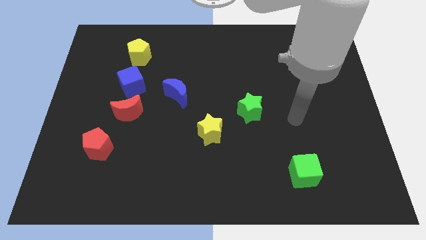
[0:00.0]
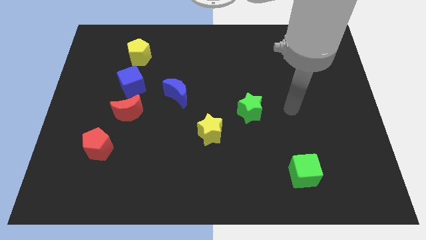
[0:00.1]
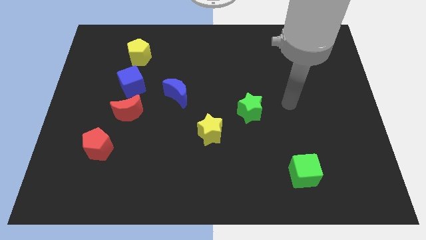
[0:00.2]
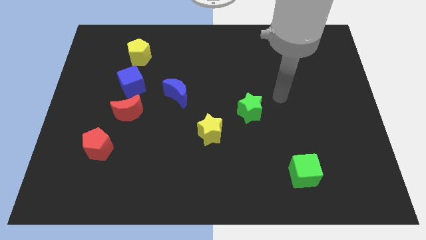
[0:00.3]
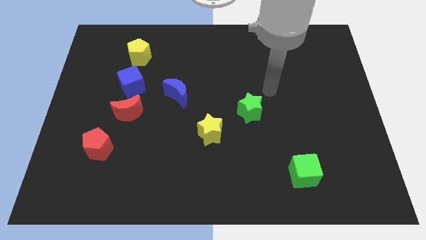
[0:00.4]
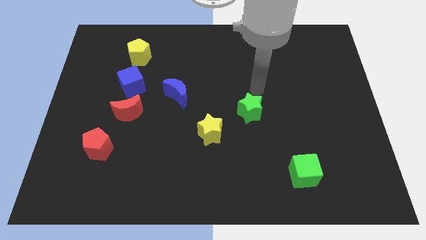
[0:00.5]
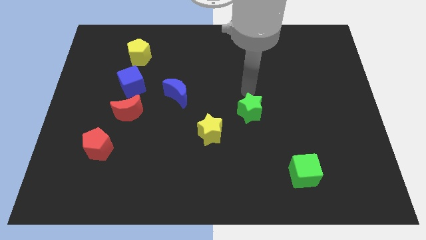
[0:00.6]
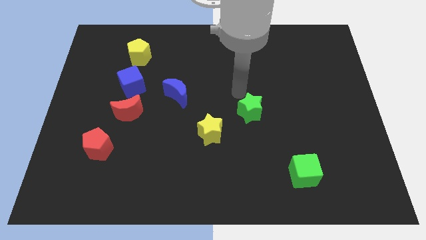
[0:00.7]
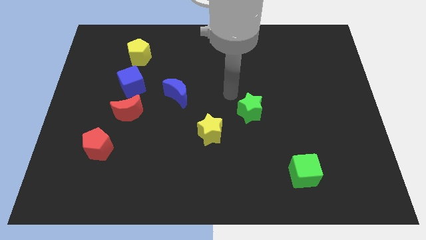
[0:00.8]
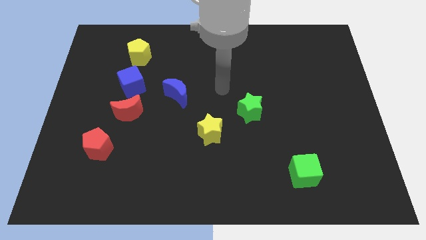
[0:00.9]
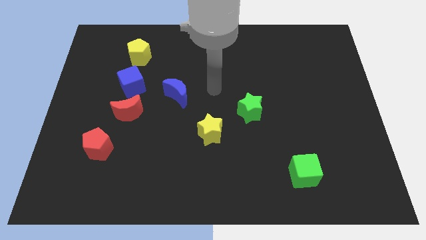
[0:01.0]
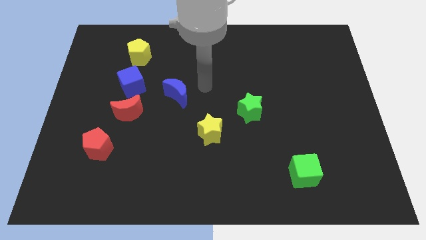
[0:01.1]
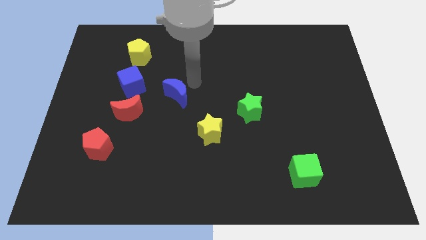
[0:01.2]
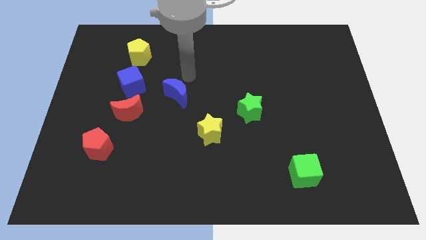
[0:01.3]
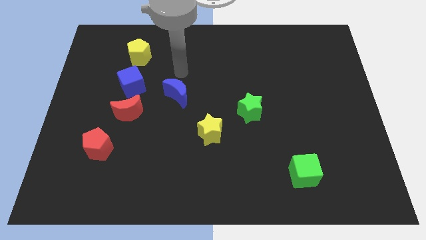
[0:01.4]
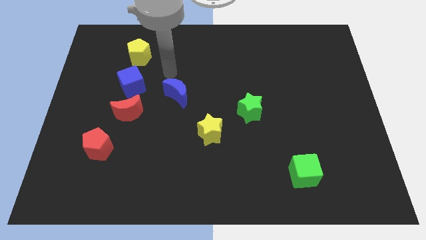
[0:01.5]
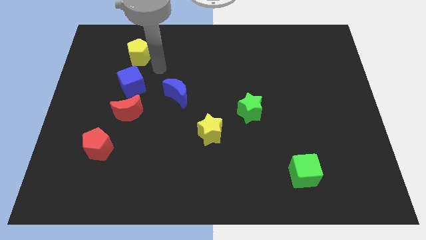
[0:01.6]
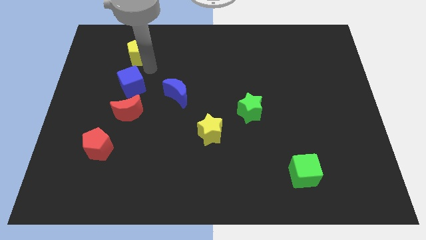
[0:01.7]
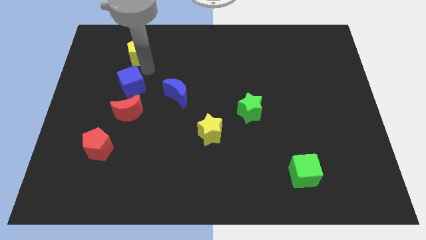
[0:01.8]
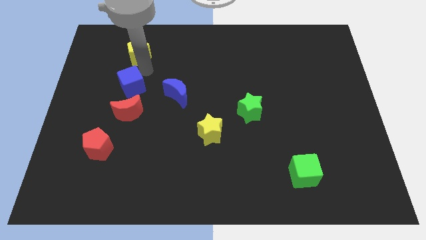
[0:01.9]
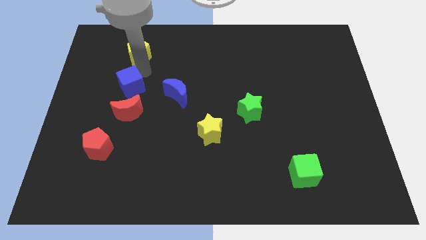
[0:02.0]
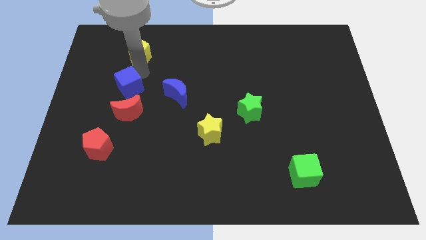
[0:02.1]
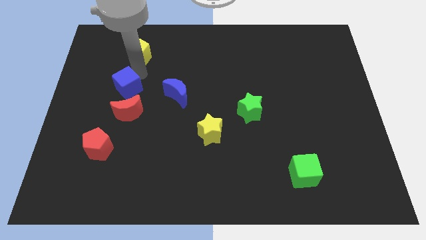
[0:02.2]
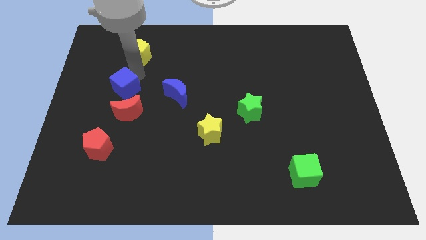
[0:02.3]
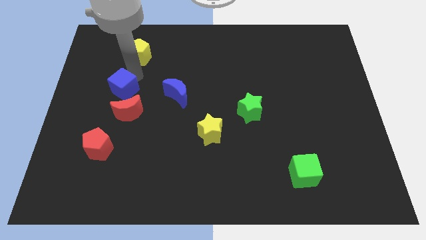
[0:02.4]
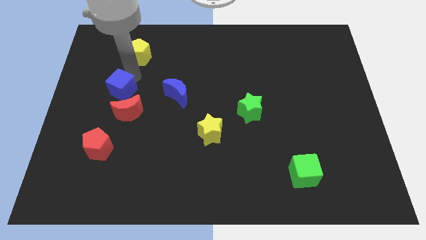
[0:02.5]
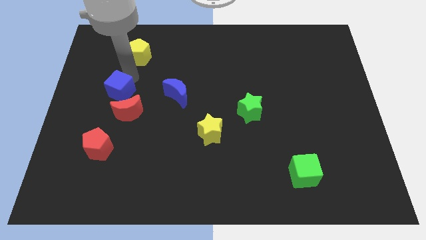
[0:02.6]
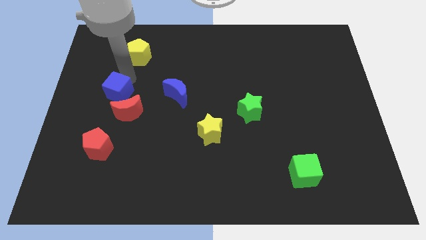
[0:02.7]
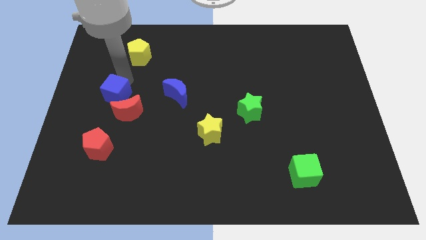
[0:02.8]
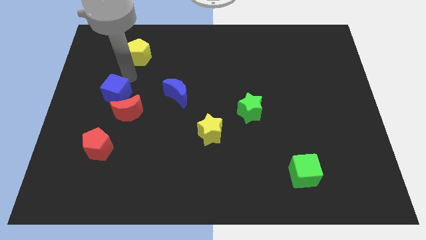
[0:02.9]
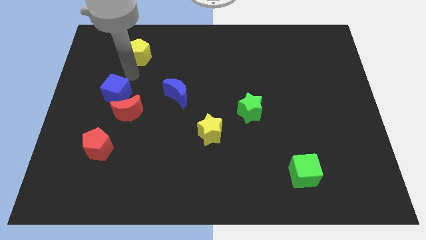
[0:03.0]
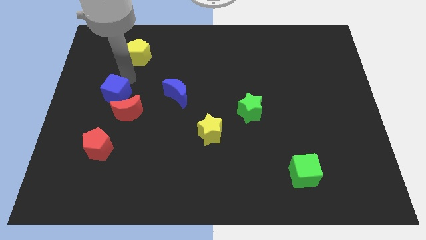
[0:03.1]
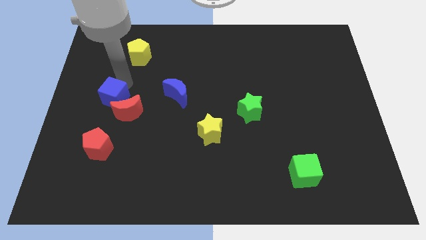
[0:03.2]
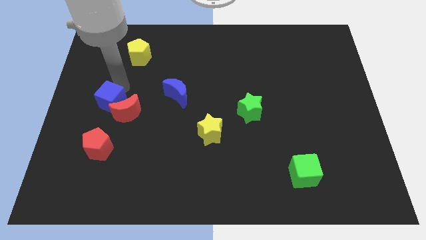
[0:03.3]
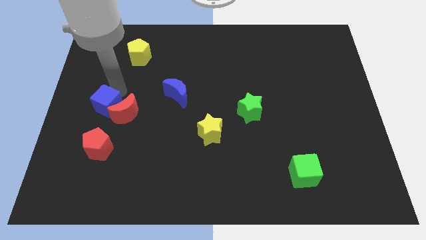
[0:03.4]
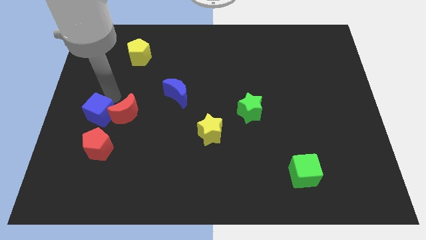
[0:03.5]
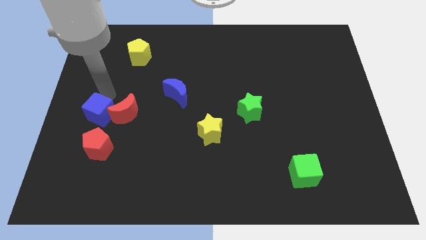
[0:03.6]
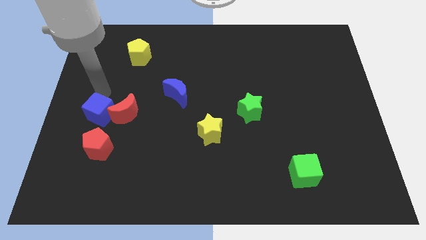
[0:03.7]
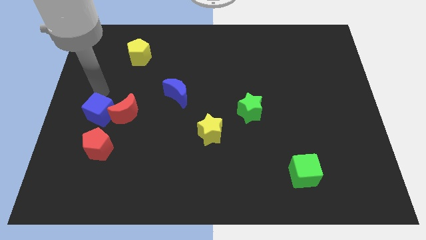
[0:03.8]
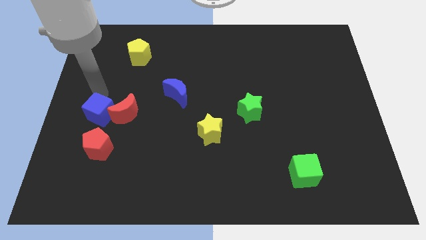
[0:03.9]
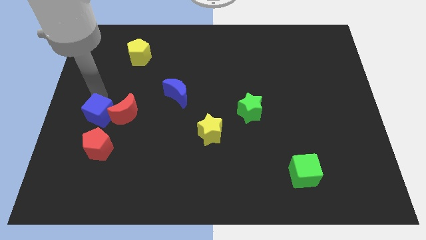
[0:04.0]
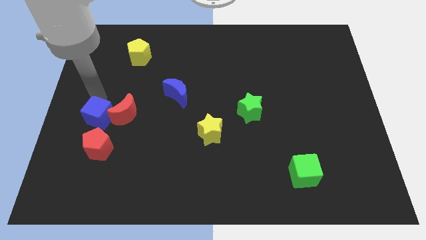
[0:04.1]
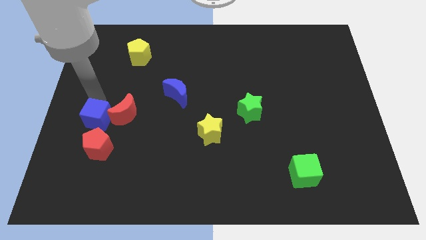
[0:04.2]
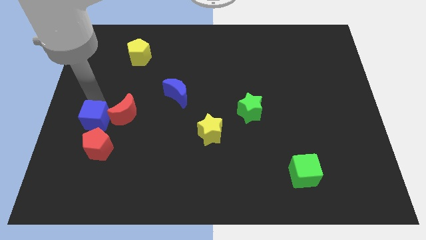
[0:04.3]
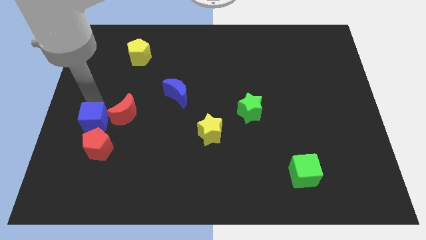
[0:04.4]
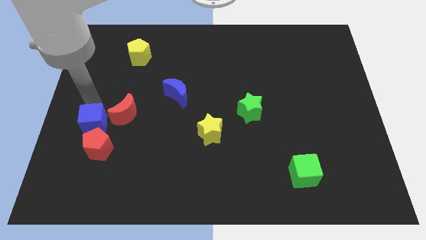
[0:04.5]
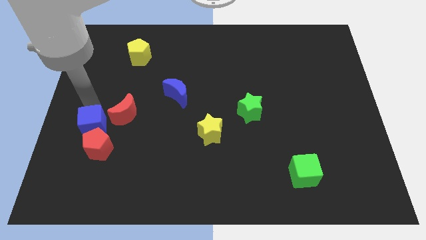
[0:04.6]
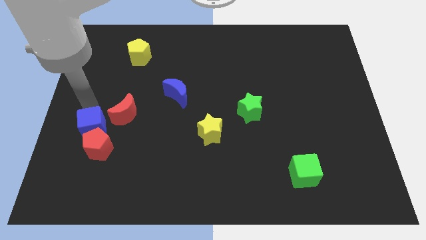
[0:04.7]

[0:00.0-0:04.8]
move the blue cube next to the red pentagon

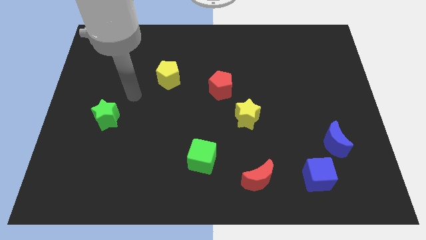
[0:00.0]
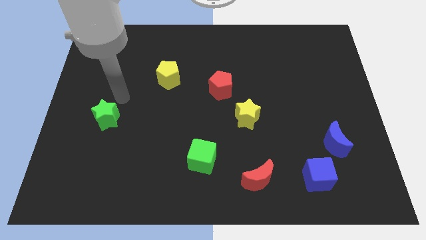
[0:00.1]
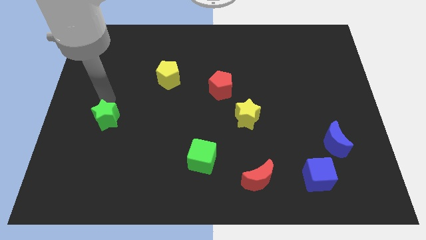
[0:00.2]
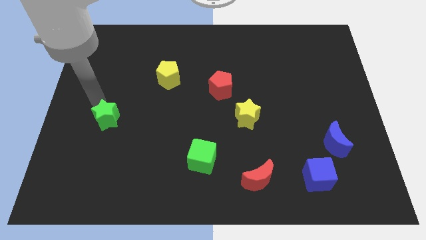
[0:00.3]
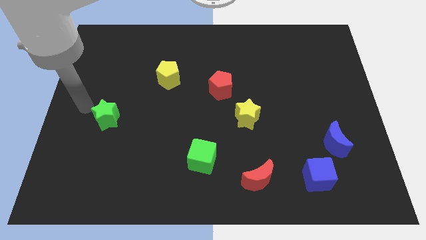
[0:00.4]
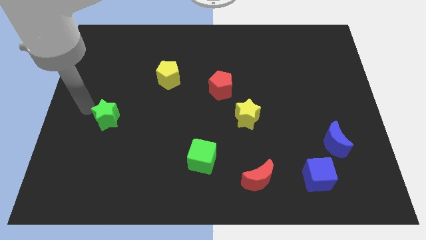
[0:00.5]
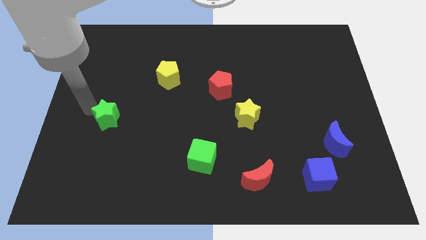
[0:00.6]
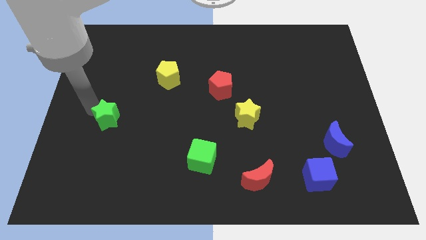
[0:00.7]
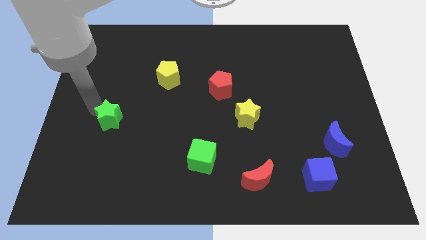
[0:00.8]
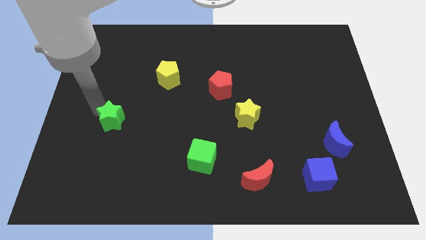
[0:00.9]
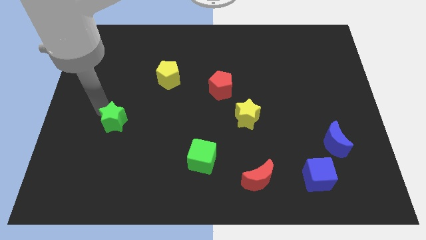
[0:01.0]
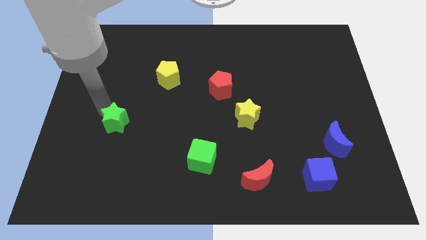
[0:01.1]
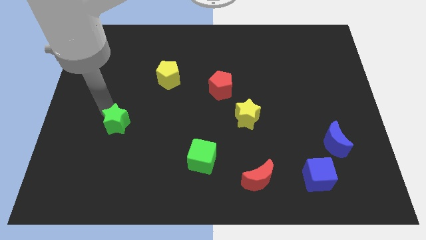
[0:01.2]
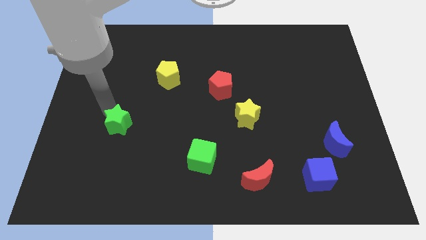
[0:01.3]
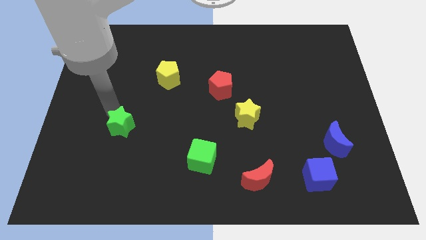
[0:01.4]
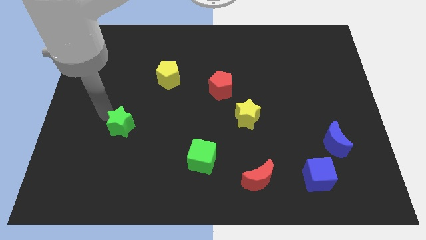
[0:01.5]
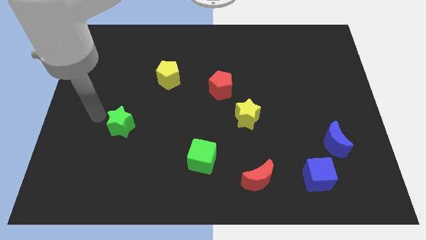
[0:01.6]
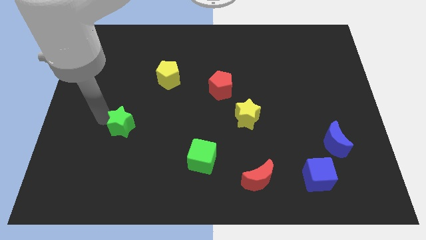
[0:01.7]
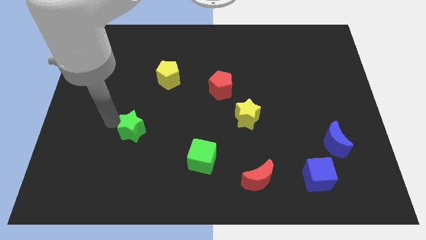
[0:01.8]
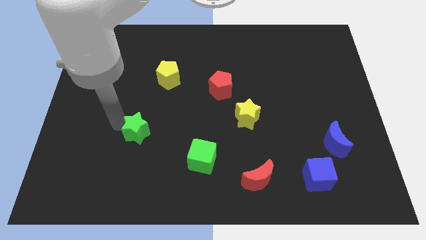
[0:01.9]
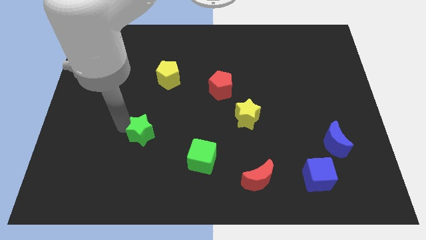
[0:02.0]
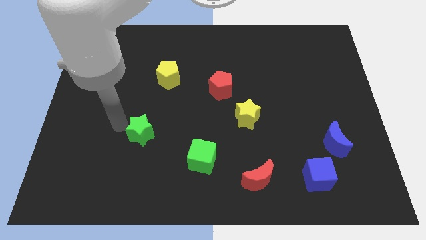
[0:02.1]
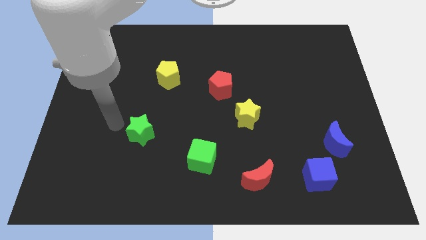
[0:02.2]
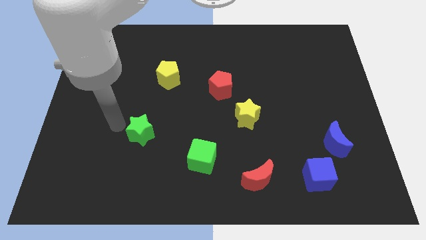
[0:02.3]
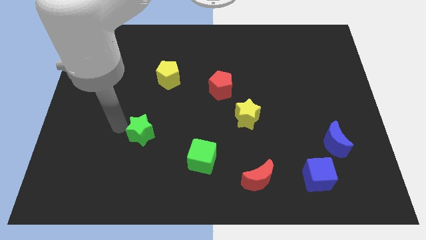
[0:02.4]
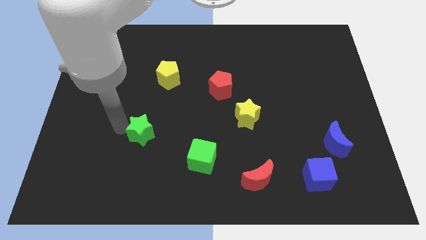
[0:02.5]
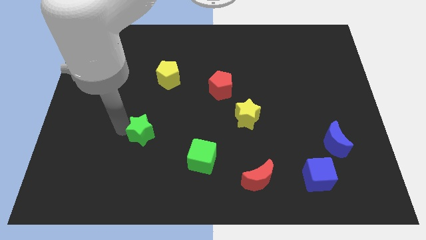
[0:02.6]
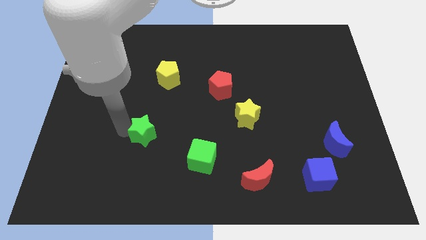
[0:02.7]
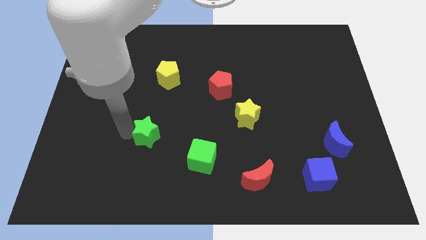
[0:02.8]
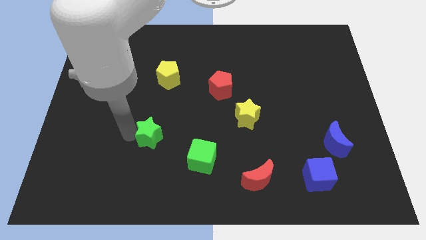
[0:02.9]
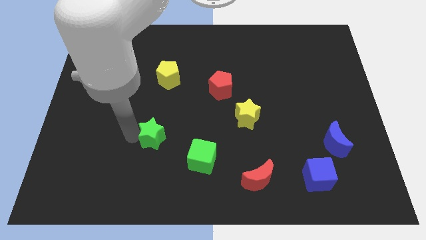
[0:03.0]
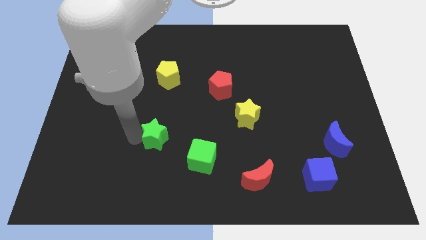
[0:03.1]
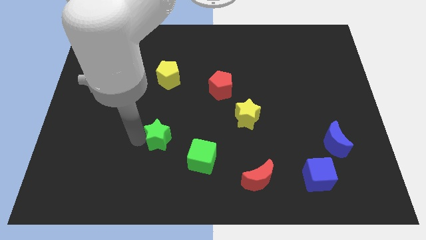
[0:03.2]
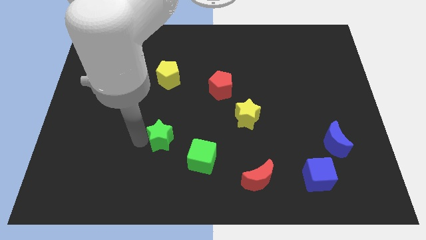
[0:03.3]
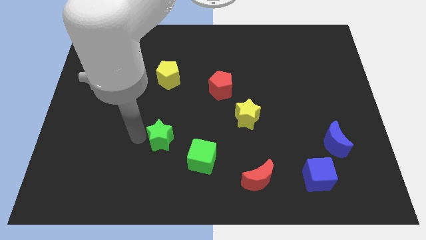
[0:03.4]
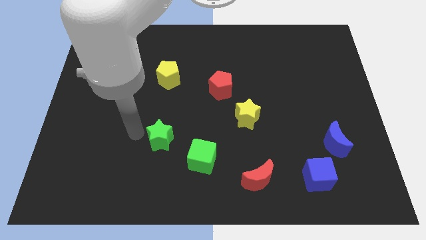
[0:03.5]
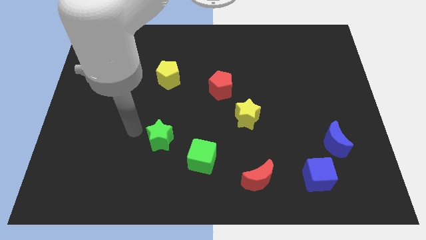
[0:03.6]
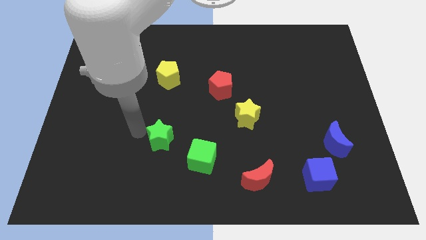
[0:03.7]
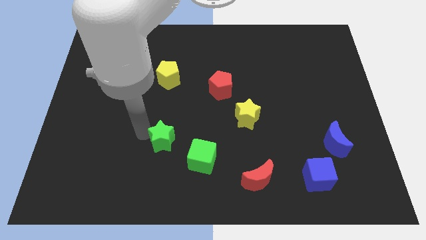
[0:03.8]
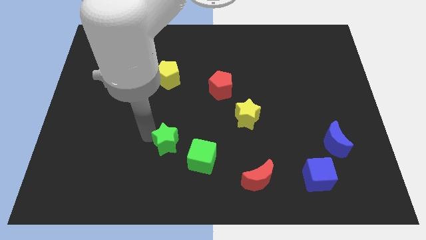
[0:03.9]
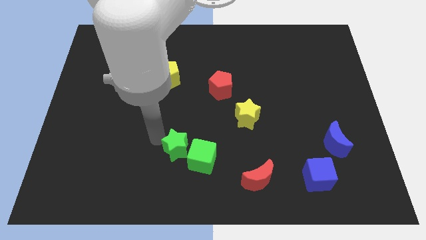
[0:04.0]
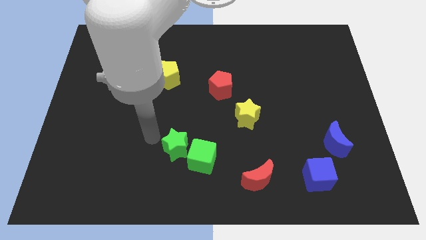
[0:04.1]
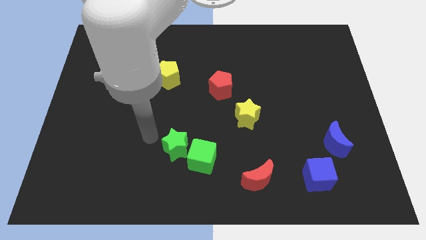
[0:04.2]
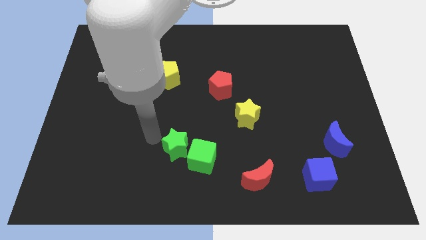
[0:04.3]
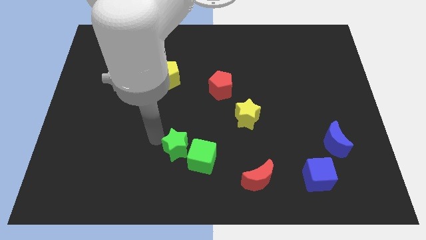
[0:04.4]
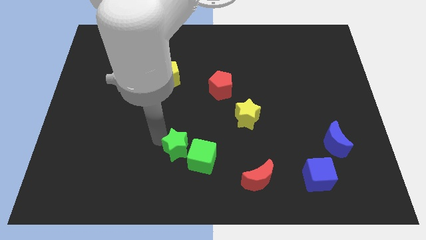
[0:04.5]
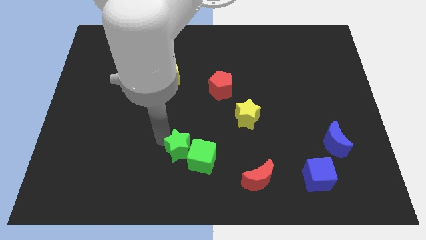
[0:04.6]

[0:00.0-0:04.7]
slide the green star to the green cube
